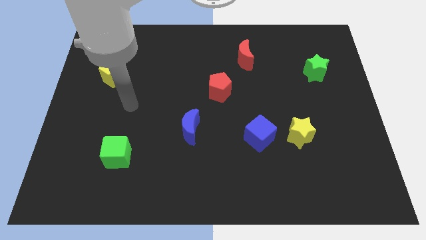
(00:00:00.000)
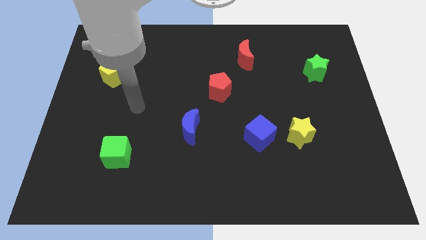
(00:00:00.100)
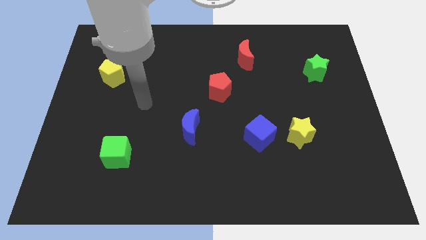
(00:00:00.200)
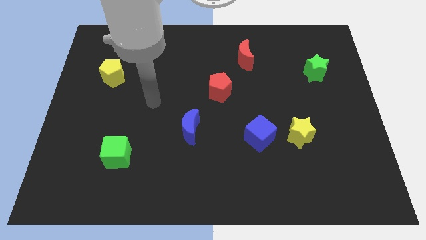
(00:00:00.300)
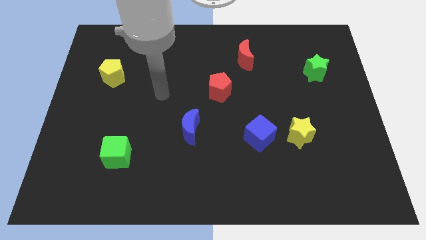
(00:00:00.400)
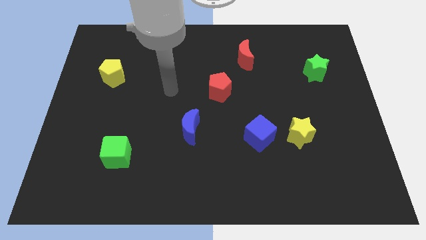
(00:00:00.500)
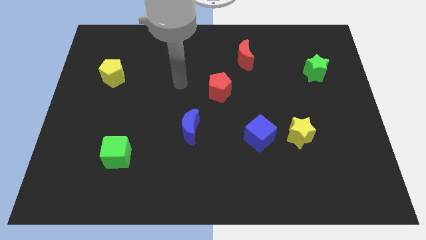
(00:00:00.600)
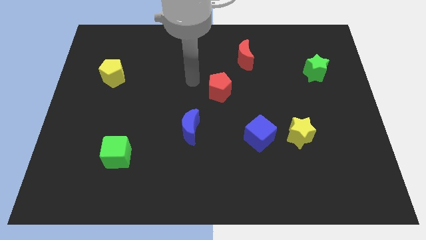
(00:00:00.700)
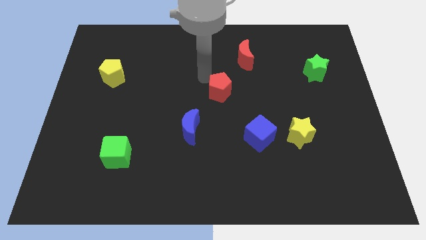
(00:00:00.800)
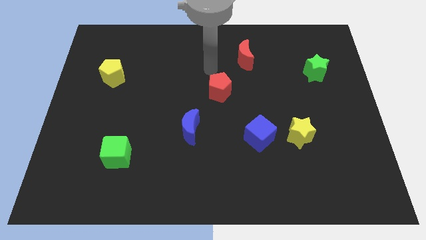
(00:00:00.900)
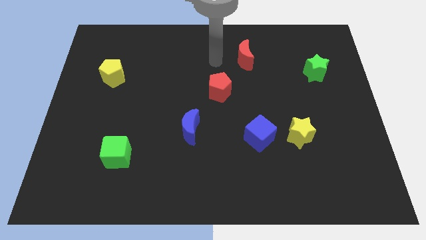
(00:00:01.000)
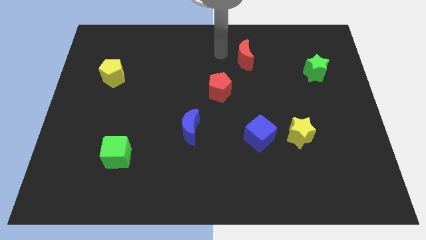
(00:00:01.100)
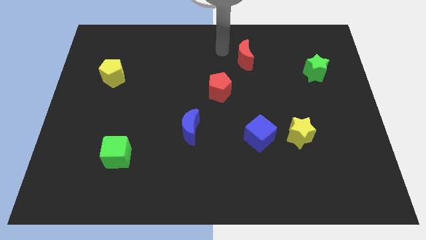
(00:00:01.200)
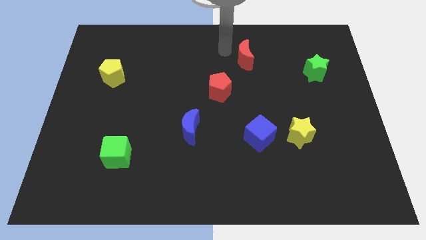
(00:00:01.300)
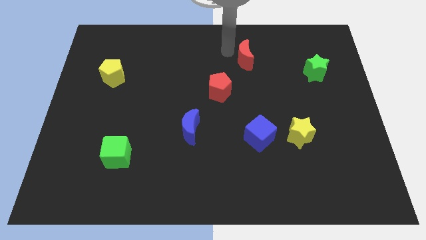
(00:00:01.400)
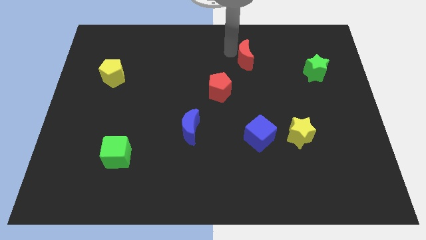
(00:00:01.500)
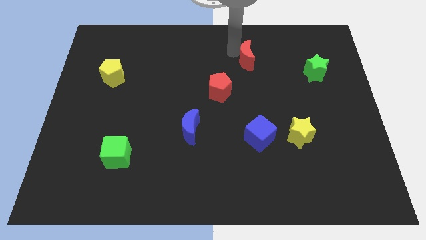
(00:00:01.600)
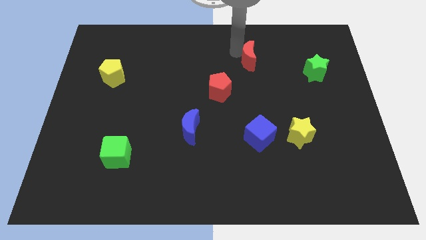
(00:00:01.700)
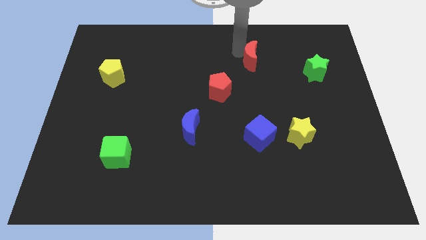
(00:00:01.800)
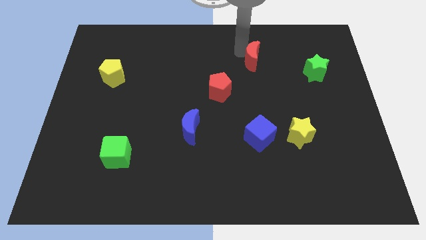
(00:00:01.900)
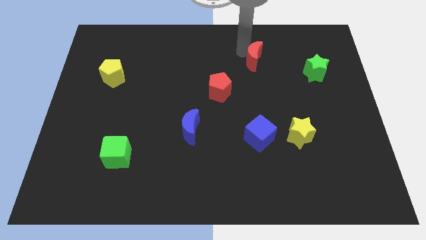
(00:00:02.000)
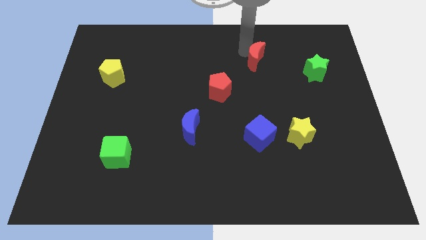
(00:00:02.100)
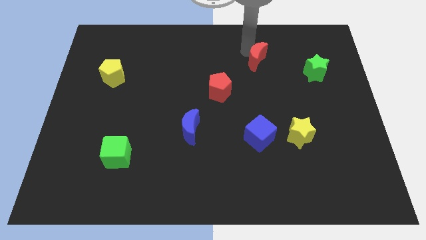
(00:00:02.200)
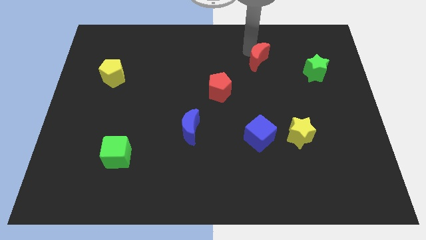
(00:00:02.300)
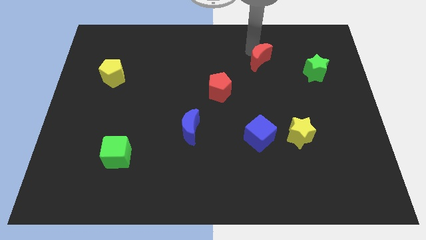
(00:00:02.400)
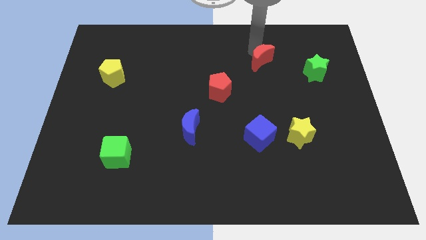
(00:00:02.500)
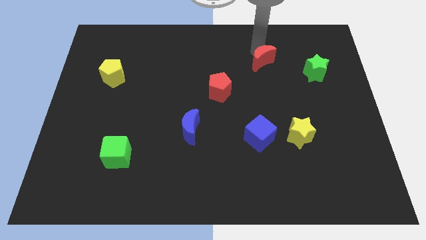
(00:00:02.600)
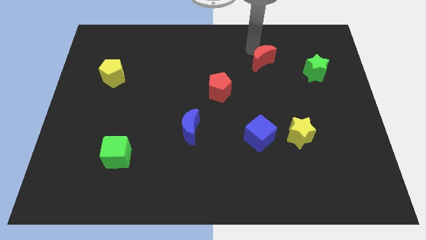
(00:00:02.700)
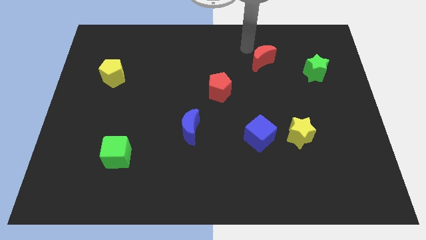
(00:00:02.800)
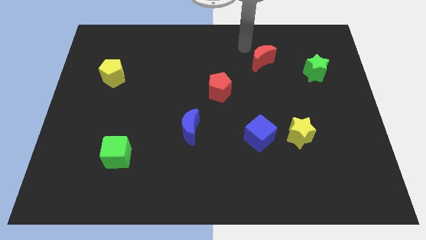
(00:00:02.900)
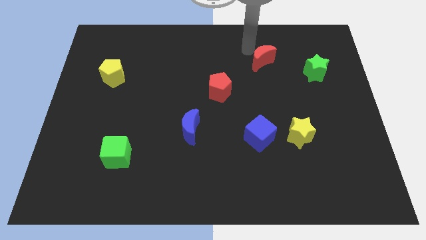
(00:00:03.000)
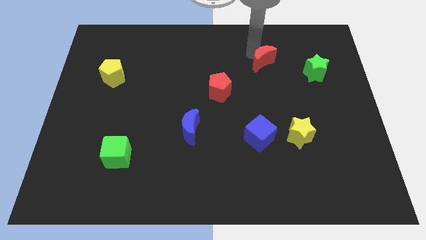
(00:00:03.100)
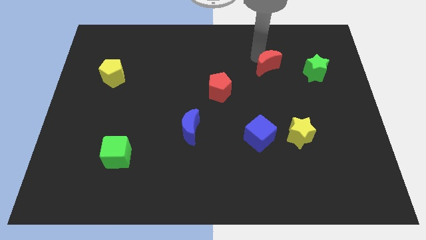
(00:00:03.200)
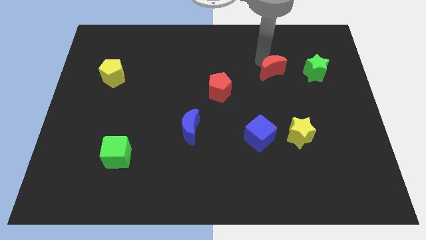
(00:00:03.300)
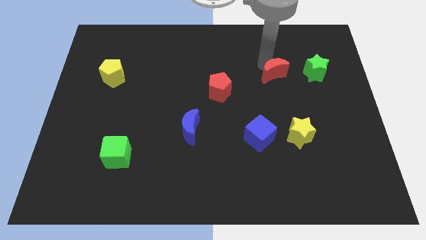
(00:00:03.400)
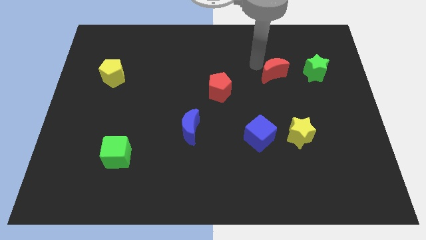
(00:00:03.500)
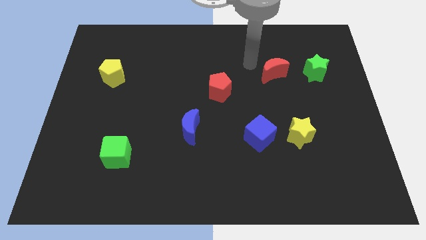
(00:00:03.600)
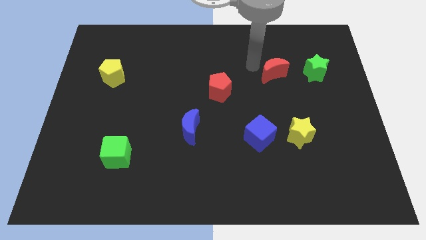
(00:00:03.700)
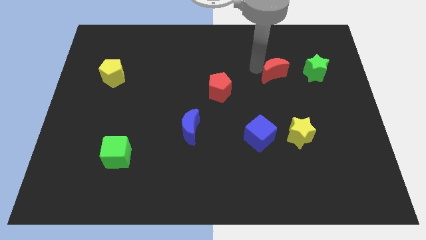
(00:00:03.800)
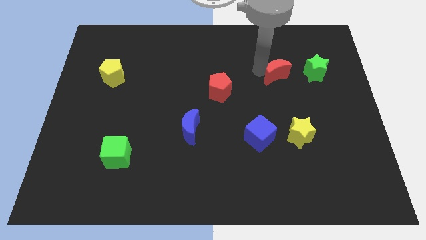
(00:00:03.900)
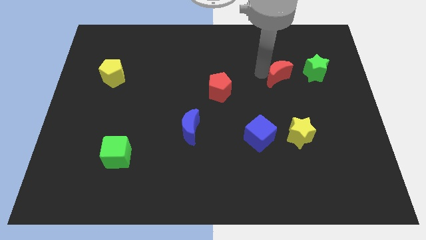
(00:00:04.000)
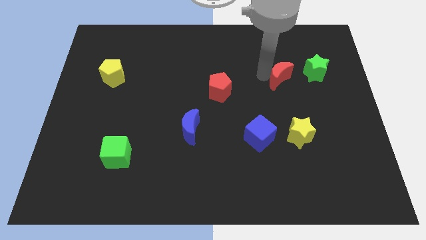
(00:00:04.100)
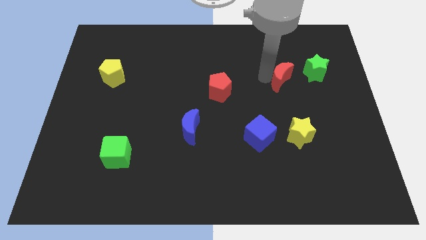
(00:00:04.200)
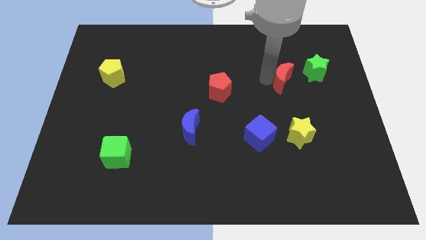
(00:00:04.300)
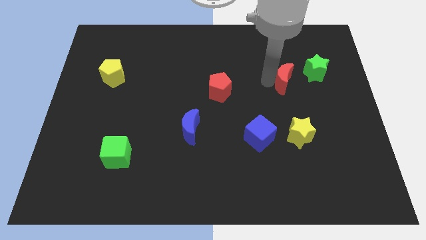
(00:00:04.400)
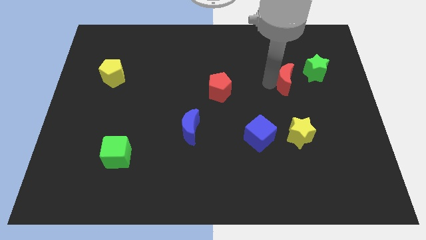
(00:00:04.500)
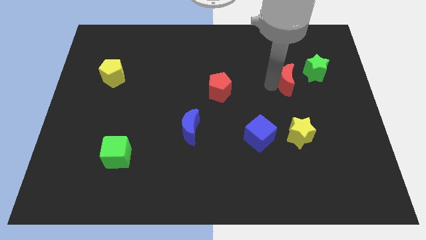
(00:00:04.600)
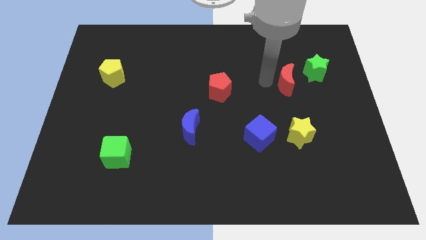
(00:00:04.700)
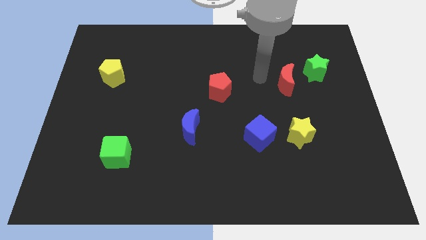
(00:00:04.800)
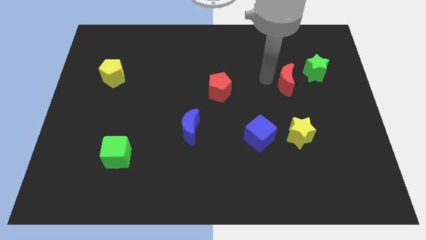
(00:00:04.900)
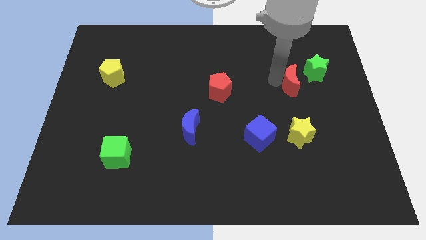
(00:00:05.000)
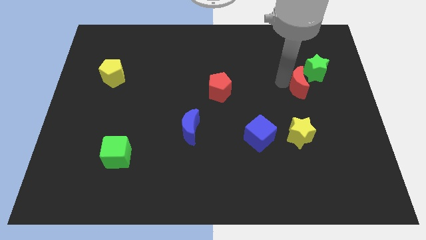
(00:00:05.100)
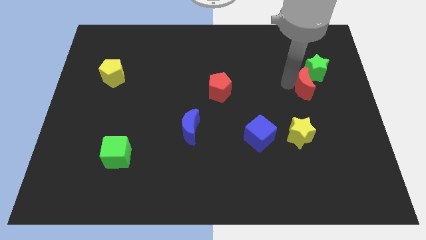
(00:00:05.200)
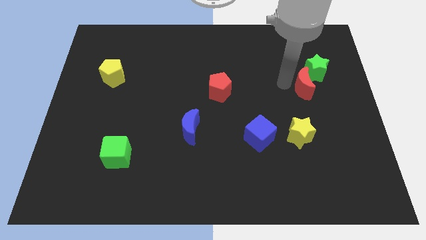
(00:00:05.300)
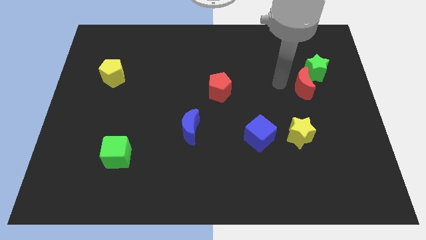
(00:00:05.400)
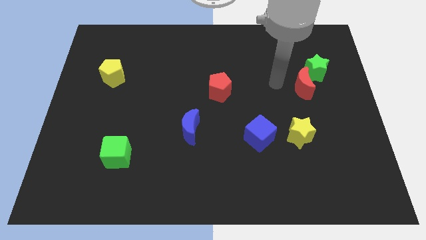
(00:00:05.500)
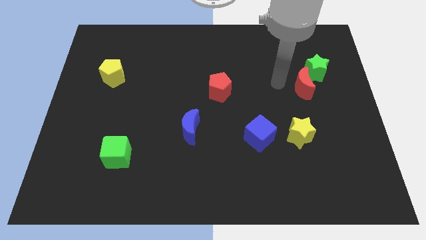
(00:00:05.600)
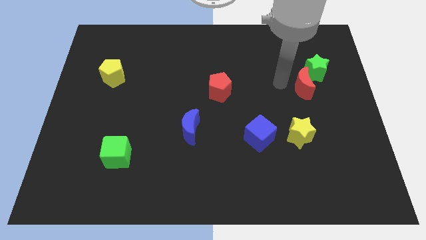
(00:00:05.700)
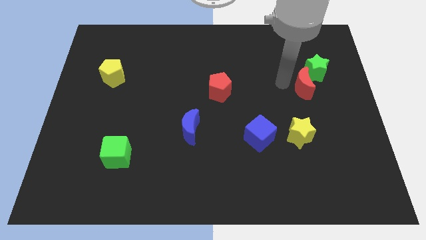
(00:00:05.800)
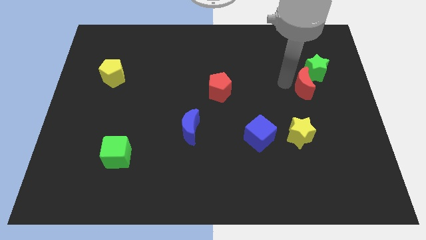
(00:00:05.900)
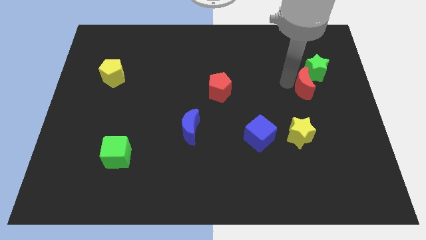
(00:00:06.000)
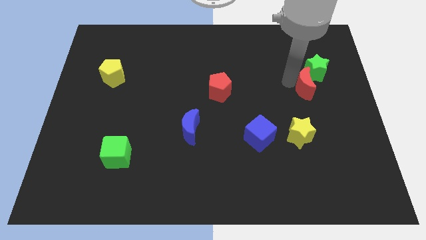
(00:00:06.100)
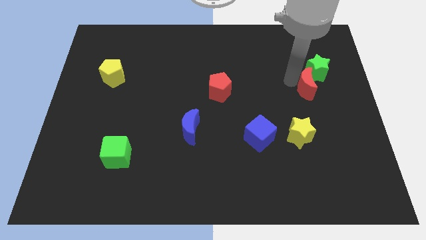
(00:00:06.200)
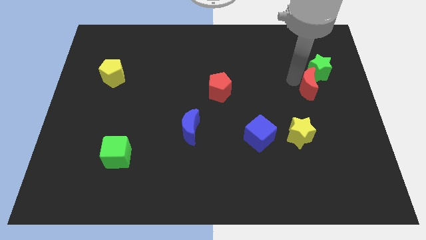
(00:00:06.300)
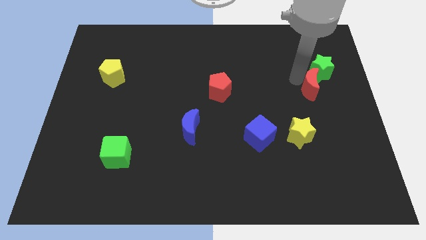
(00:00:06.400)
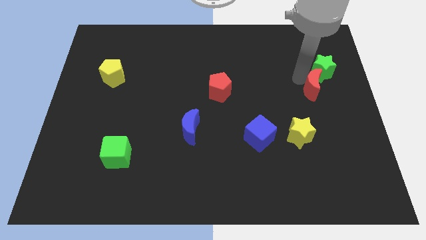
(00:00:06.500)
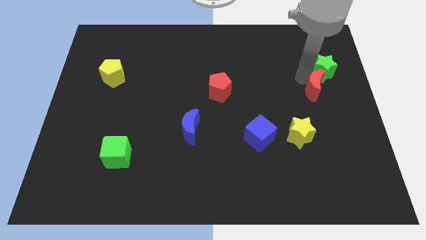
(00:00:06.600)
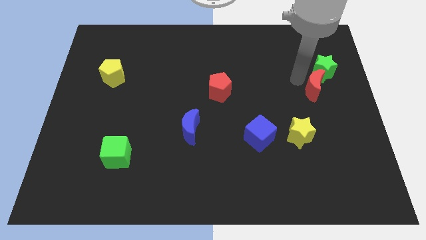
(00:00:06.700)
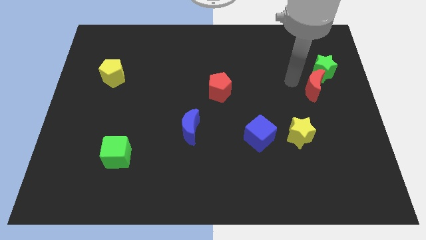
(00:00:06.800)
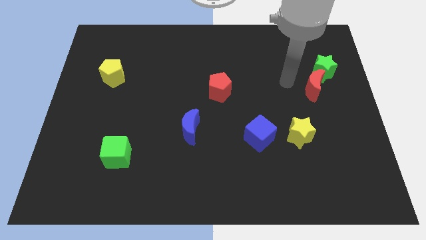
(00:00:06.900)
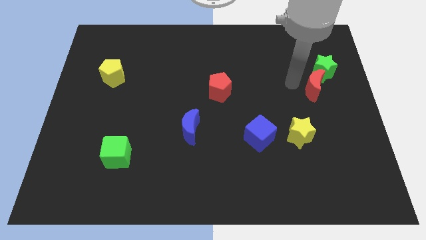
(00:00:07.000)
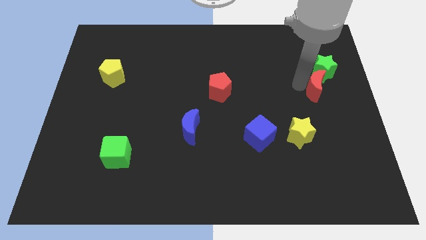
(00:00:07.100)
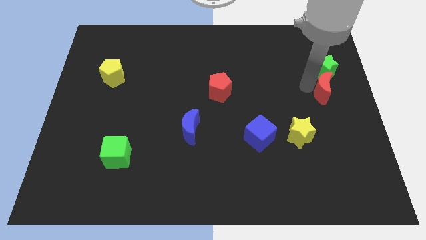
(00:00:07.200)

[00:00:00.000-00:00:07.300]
move the red moon to the center right
